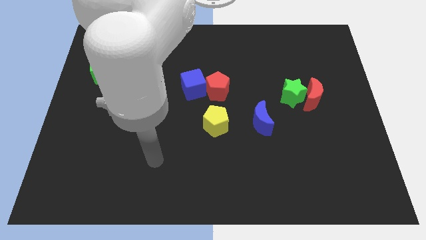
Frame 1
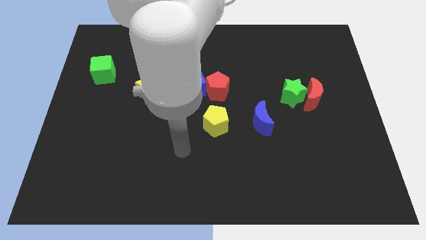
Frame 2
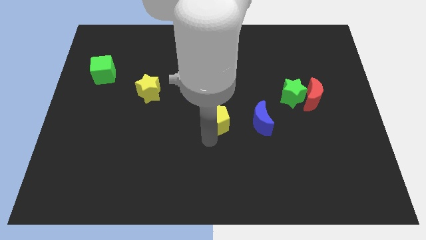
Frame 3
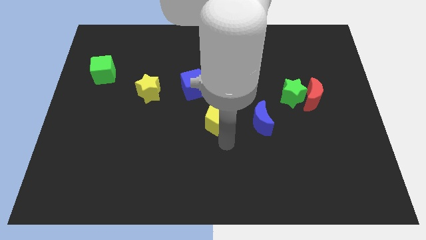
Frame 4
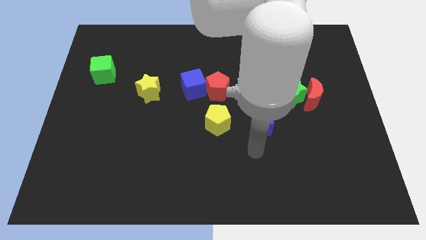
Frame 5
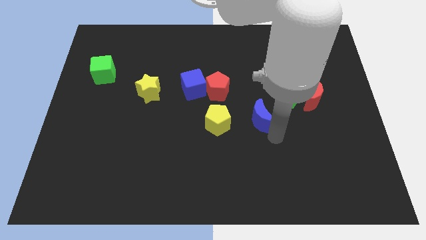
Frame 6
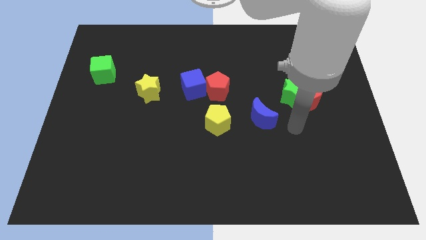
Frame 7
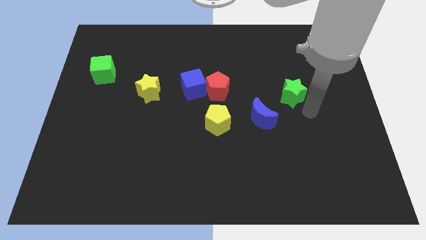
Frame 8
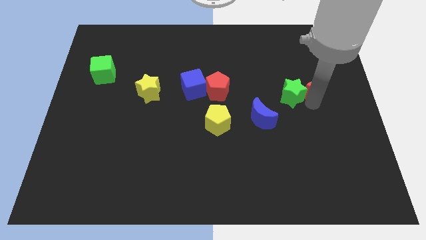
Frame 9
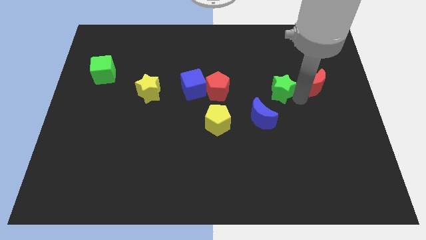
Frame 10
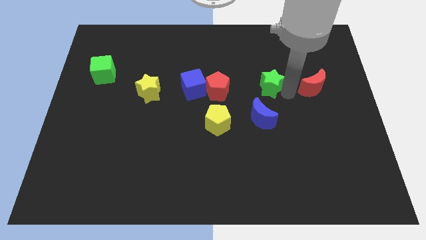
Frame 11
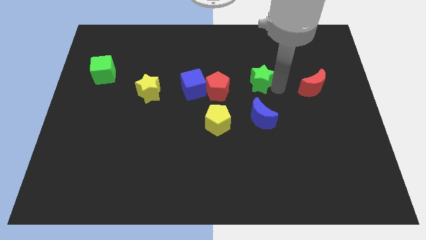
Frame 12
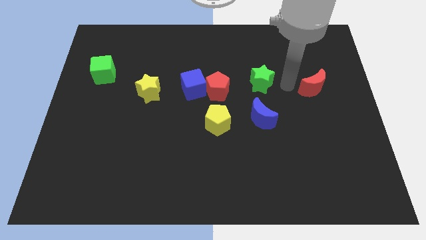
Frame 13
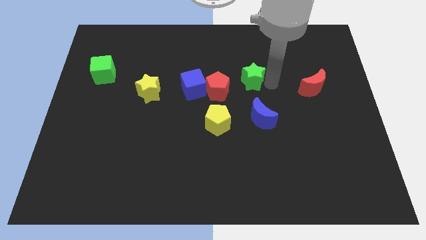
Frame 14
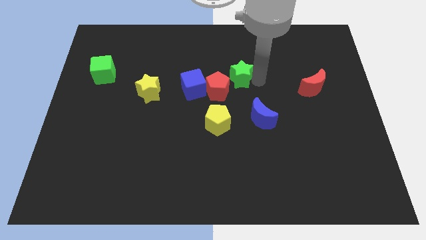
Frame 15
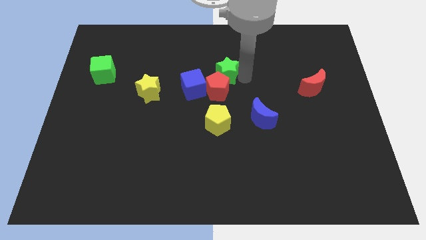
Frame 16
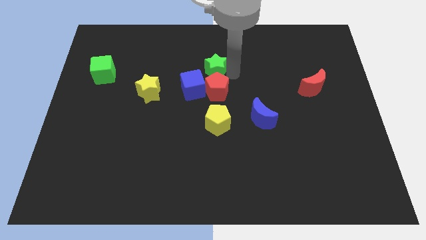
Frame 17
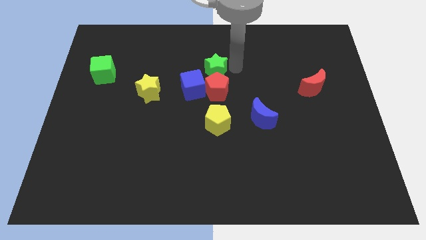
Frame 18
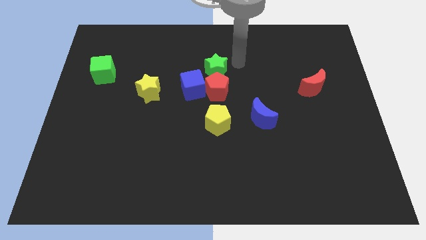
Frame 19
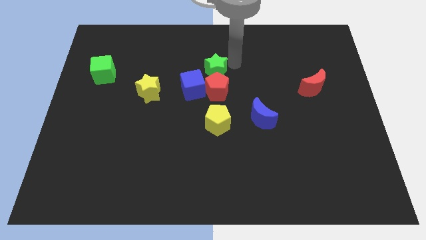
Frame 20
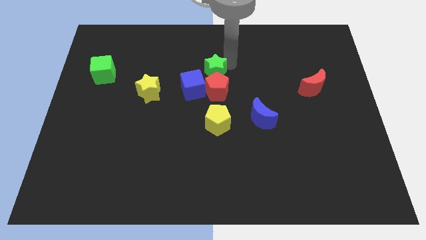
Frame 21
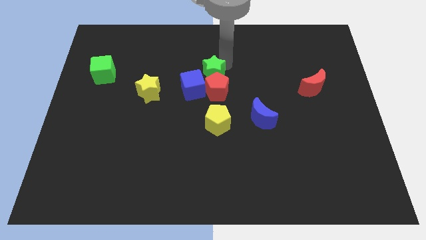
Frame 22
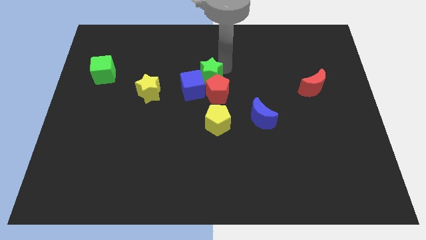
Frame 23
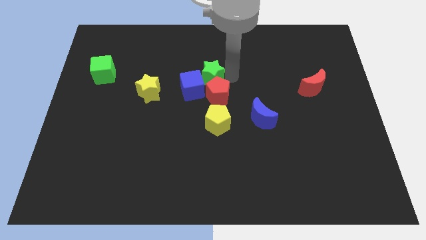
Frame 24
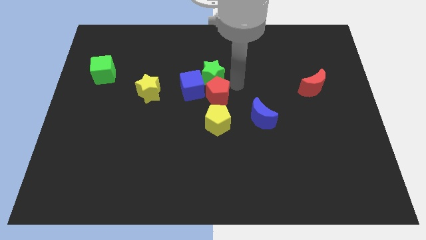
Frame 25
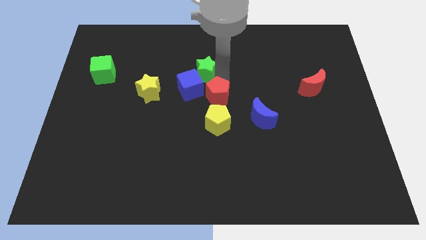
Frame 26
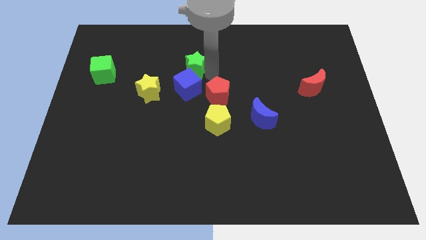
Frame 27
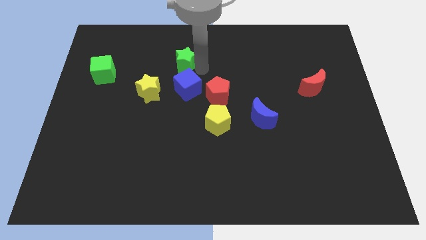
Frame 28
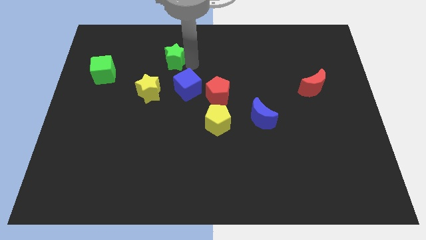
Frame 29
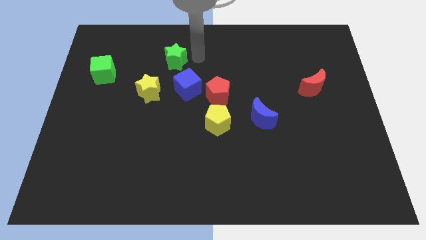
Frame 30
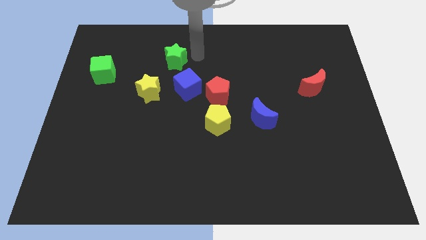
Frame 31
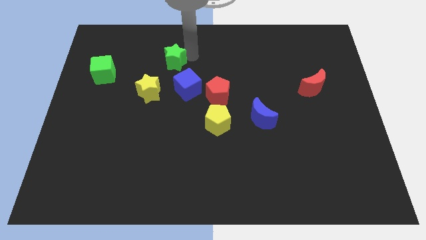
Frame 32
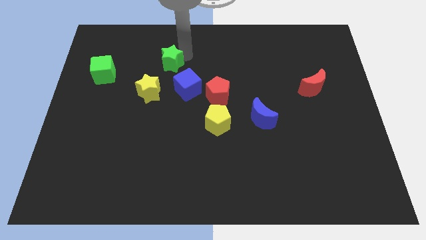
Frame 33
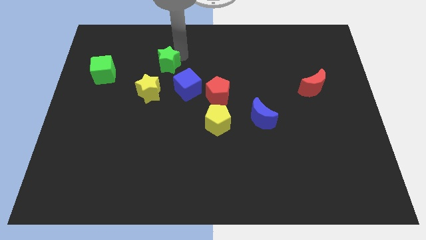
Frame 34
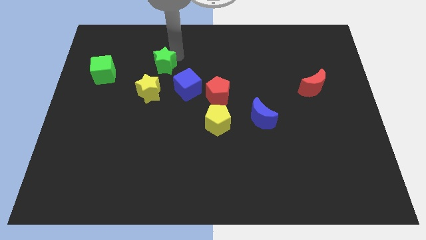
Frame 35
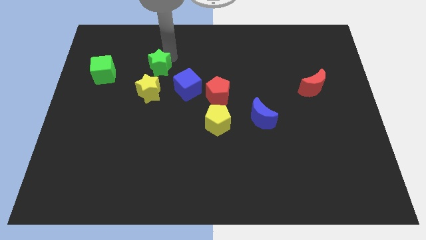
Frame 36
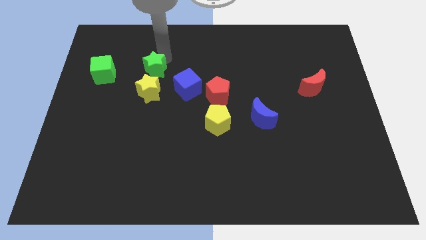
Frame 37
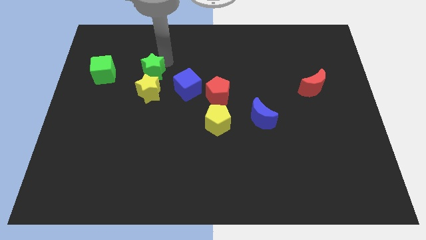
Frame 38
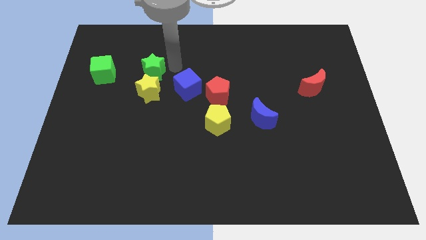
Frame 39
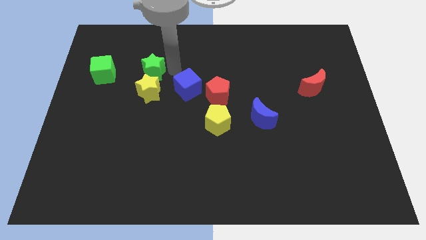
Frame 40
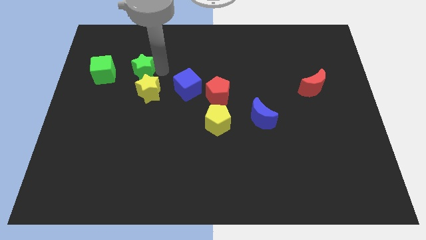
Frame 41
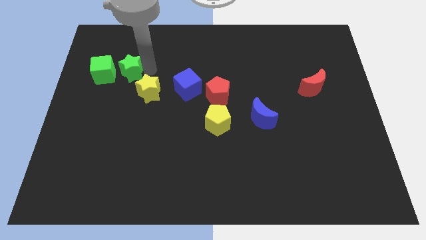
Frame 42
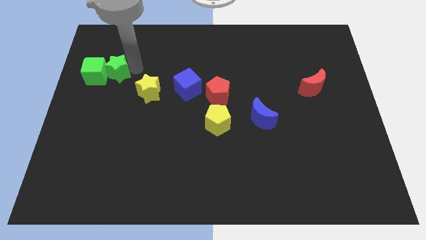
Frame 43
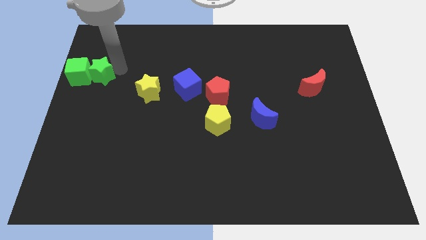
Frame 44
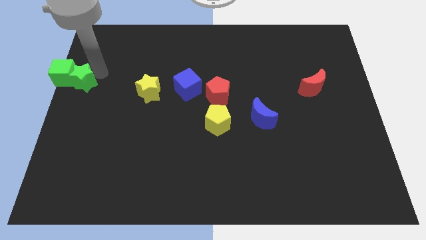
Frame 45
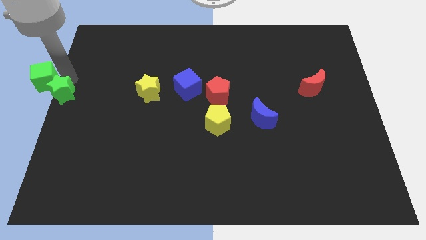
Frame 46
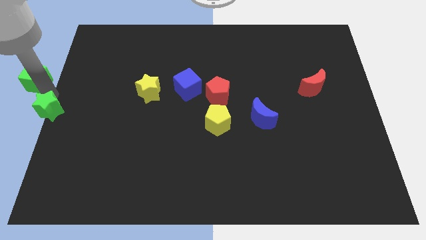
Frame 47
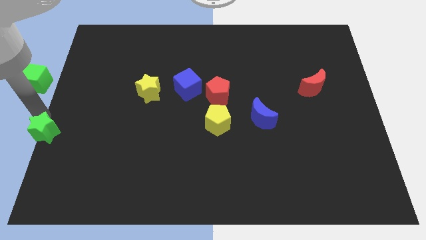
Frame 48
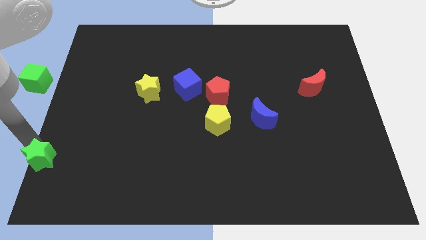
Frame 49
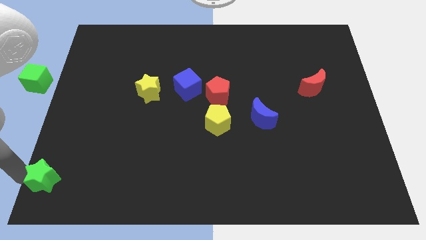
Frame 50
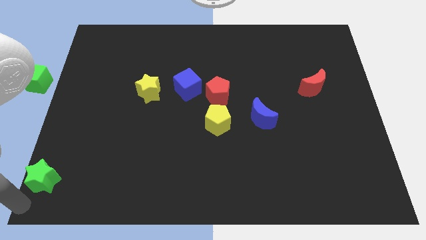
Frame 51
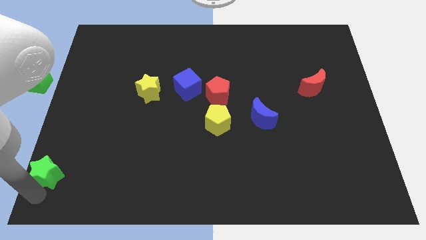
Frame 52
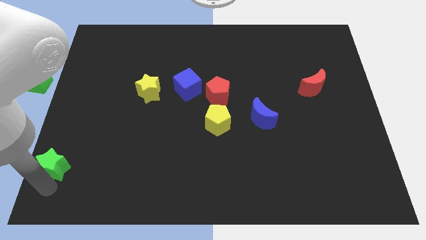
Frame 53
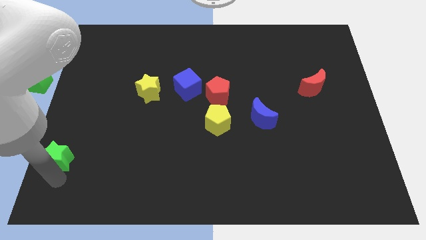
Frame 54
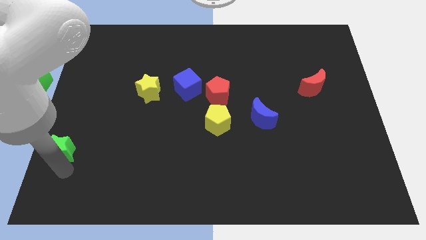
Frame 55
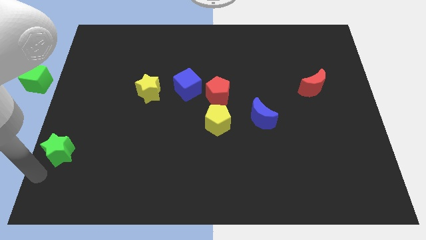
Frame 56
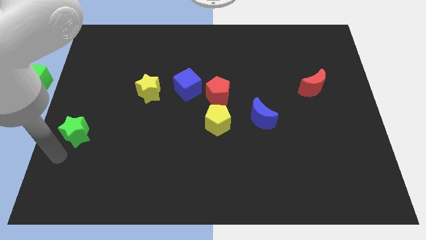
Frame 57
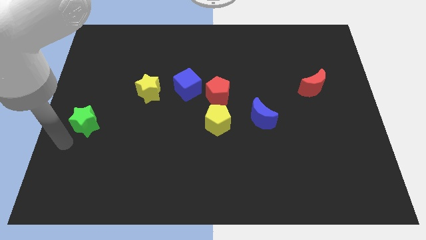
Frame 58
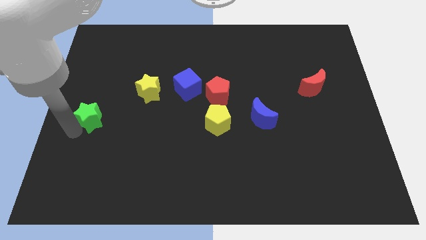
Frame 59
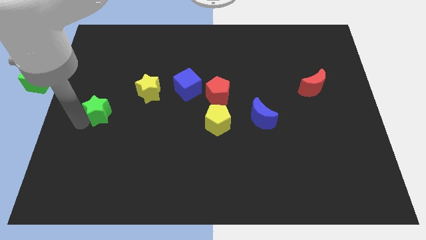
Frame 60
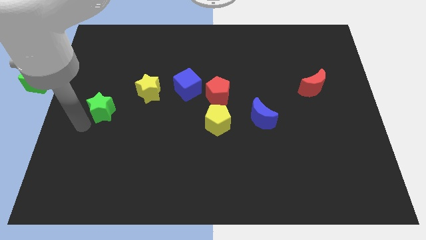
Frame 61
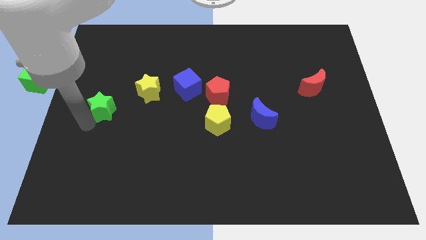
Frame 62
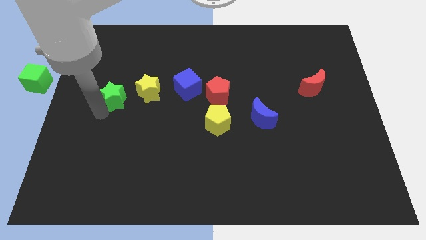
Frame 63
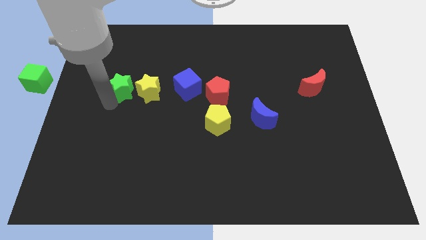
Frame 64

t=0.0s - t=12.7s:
move the green star just left of the blue cube
